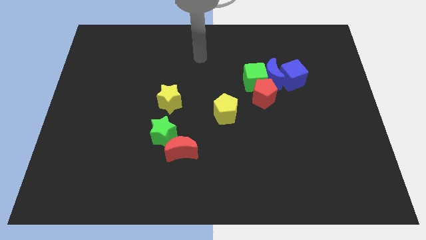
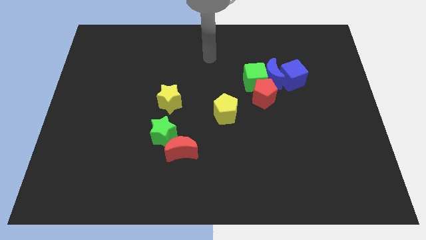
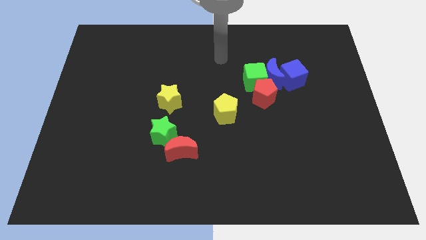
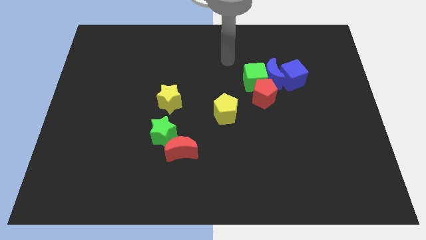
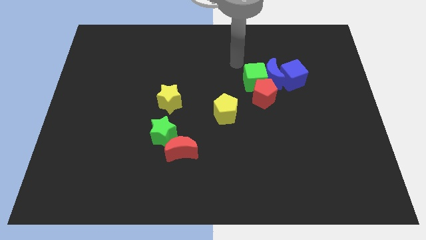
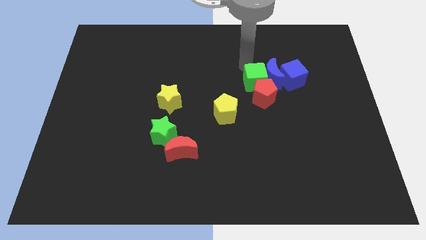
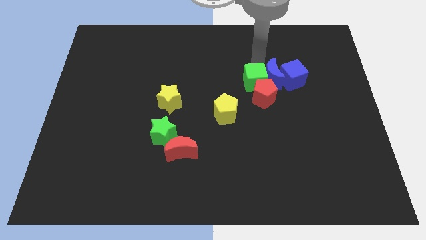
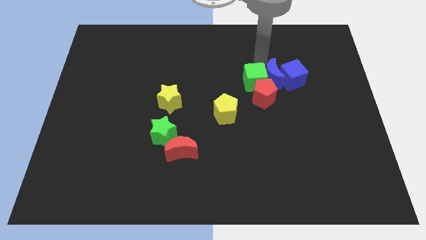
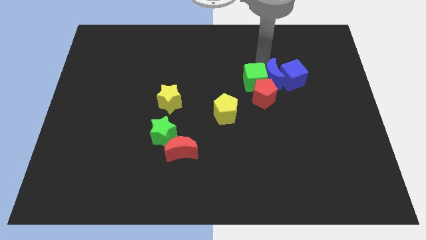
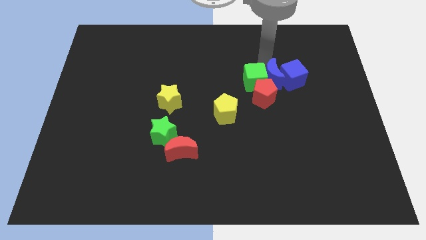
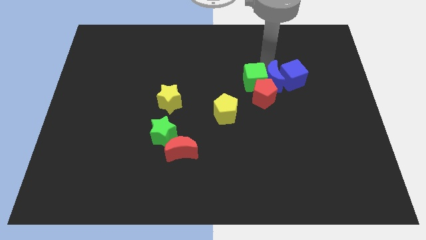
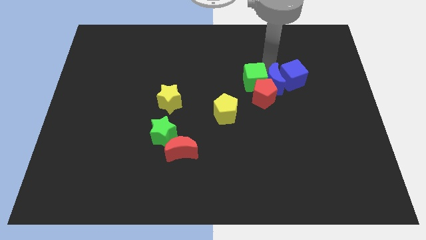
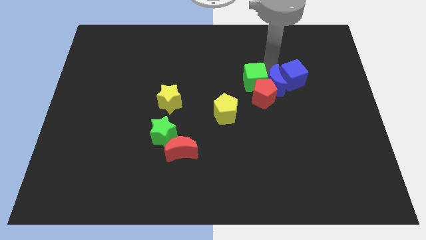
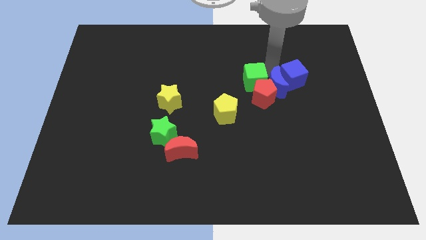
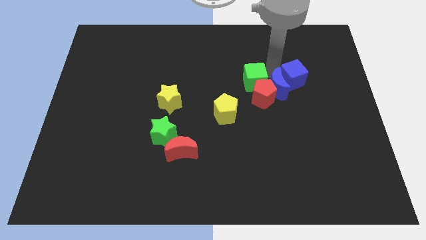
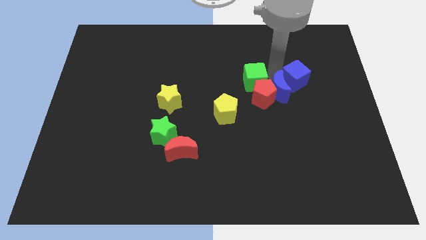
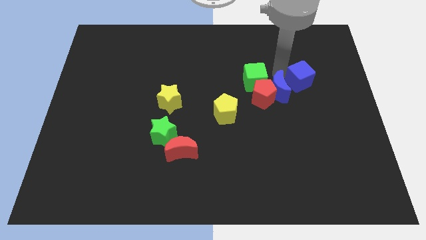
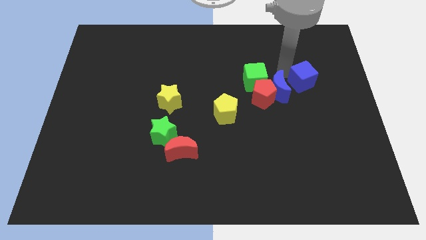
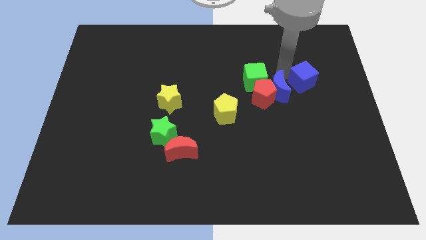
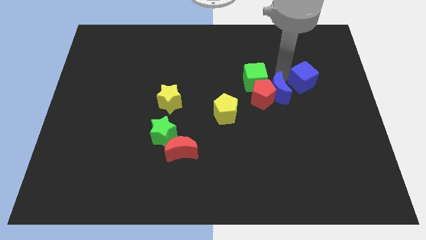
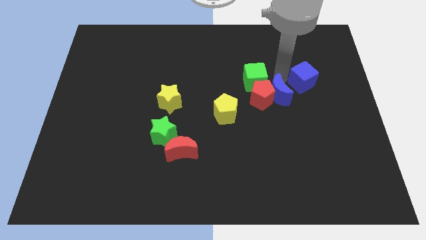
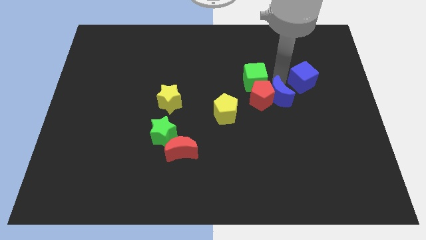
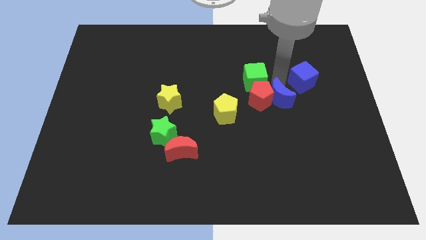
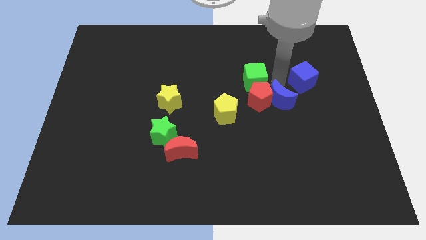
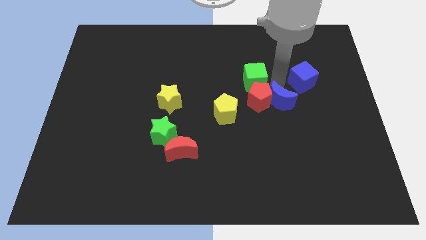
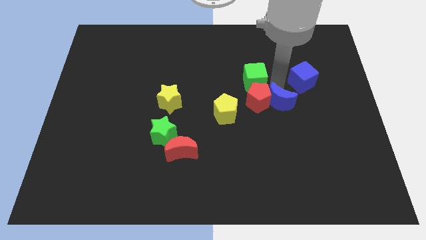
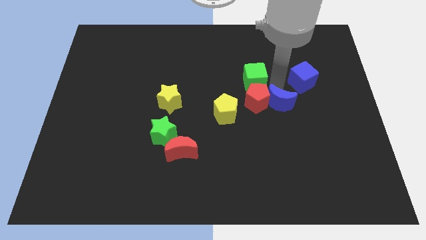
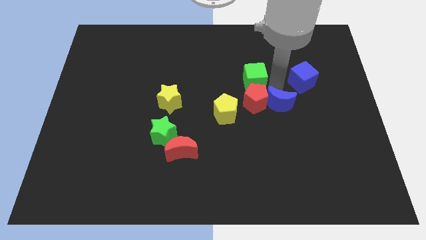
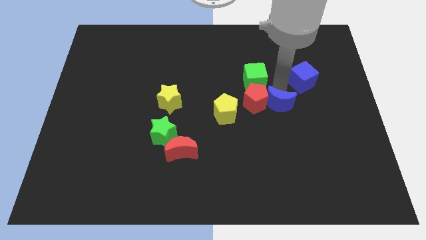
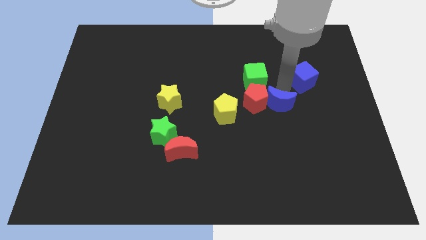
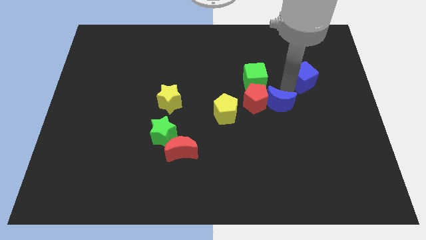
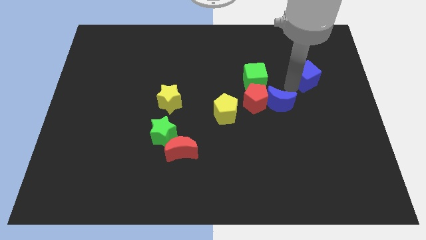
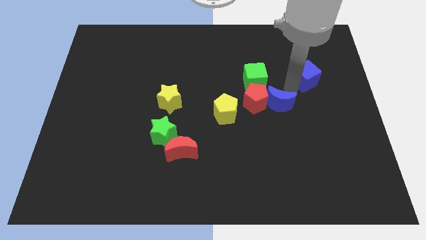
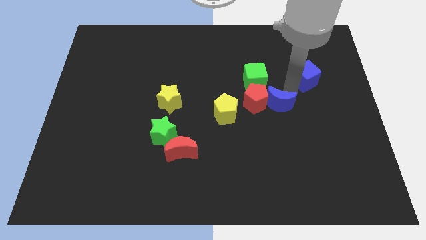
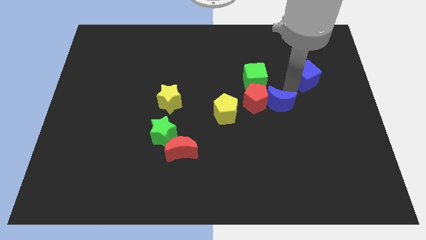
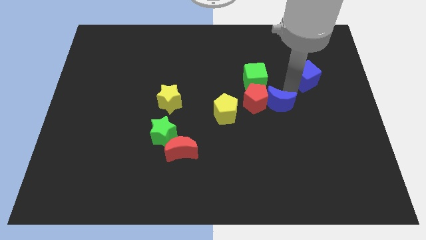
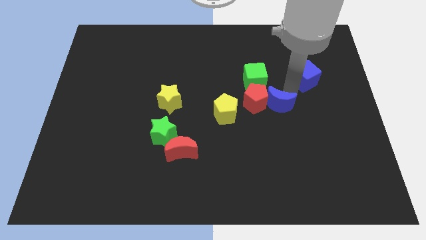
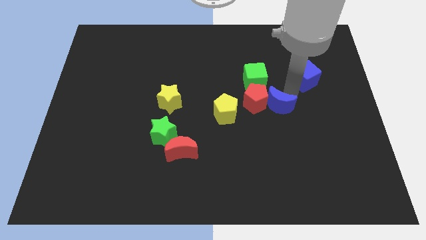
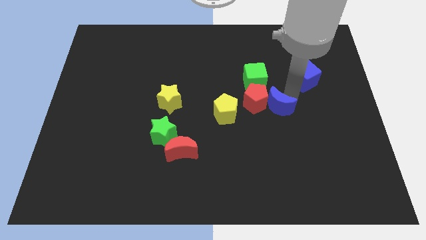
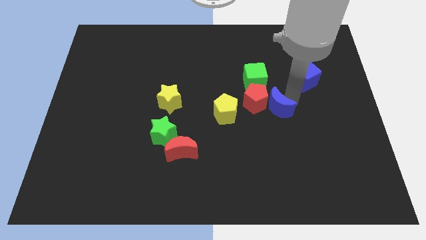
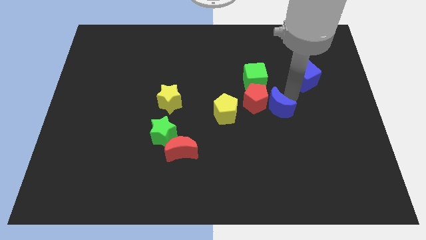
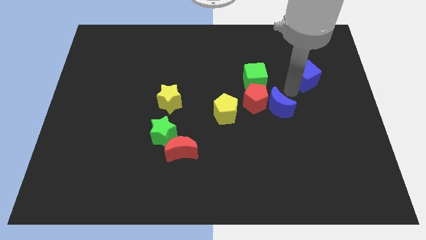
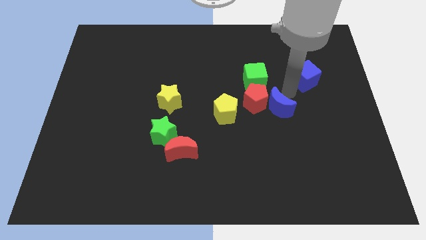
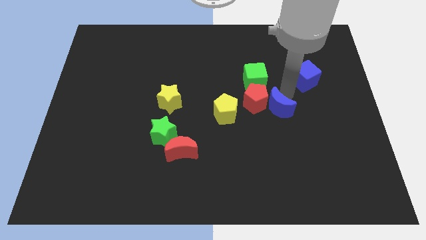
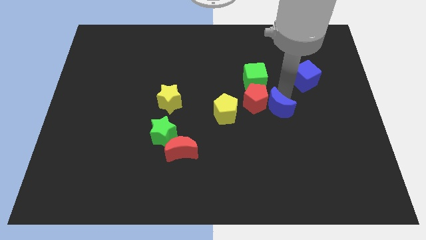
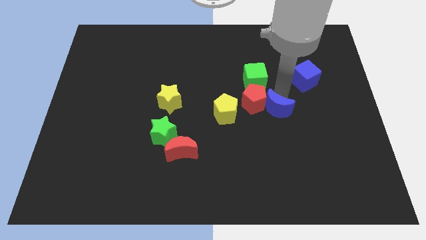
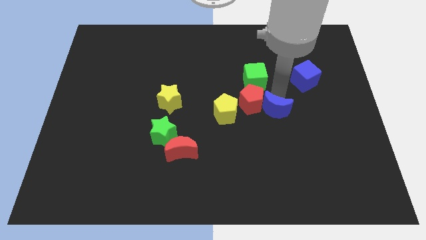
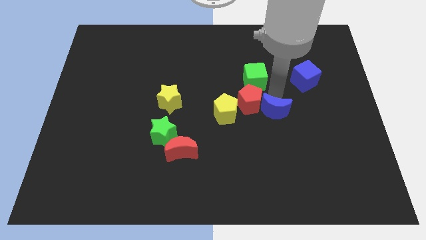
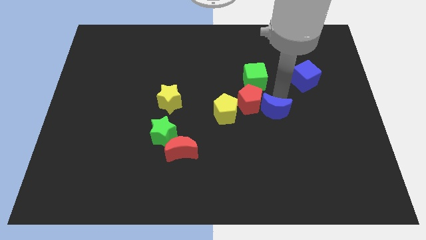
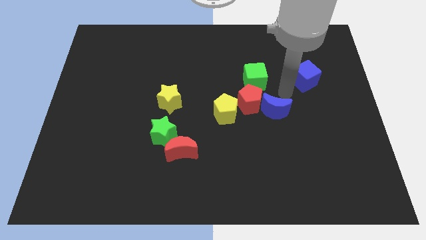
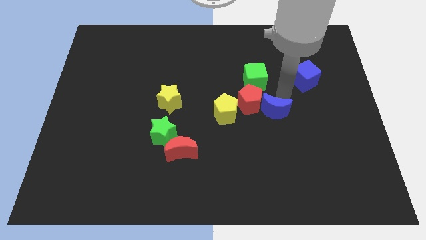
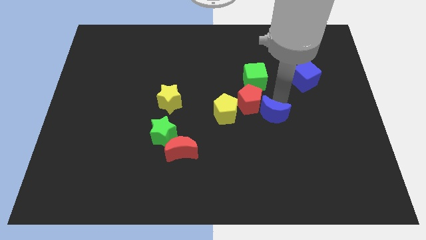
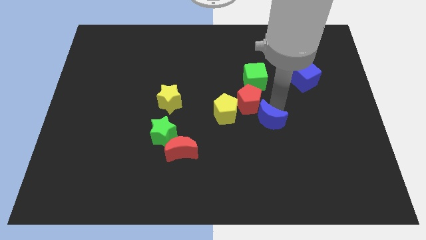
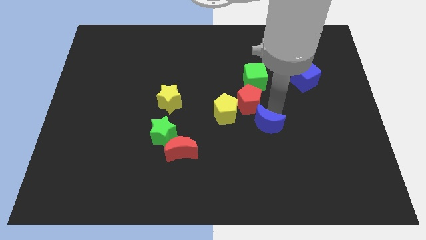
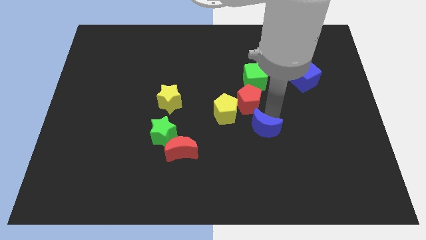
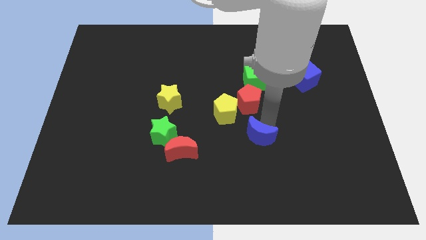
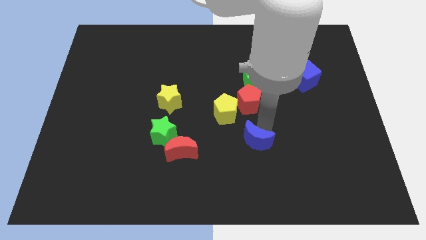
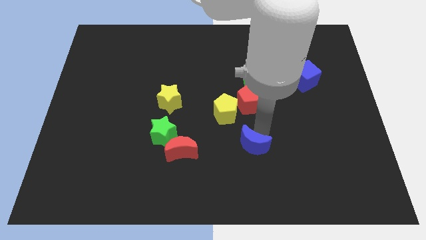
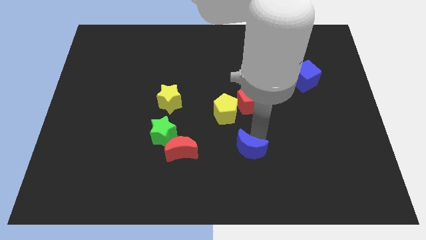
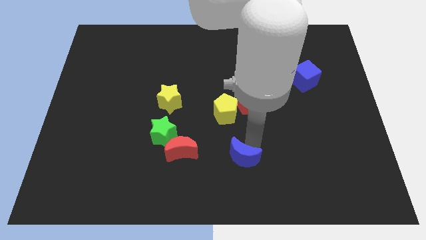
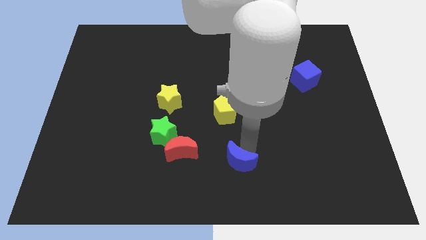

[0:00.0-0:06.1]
put the blue moon to the bottom
